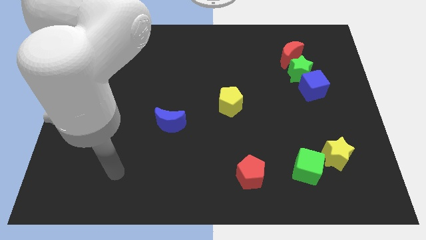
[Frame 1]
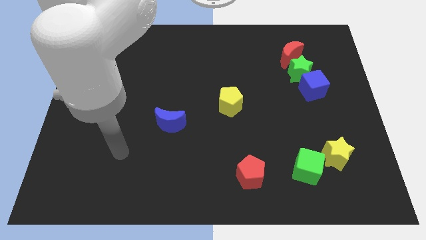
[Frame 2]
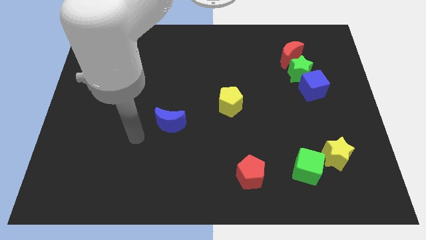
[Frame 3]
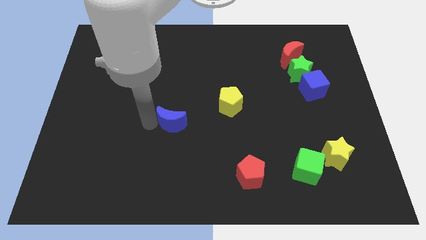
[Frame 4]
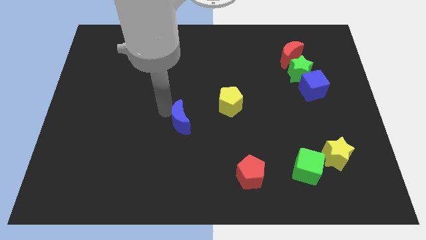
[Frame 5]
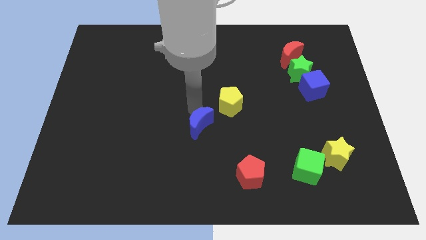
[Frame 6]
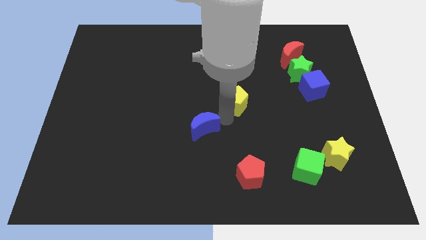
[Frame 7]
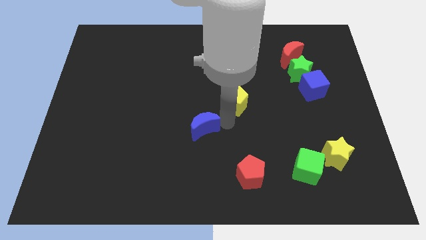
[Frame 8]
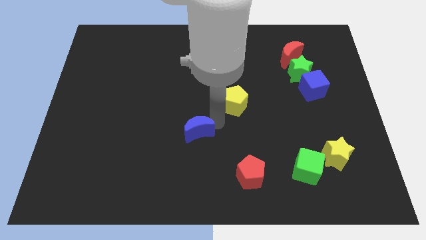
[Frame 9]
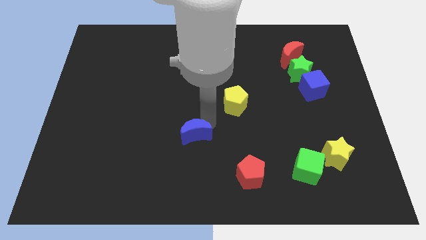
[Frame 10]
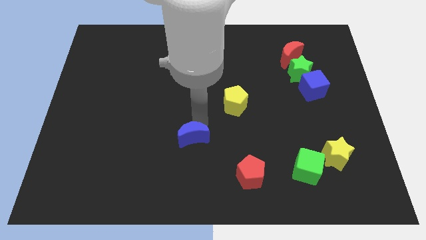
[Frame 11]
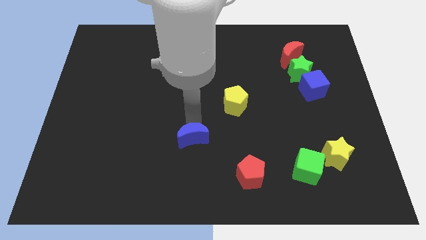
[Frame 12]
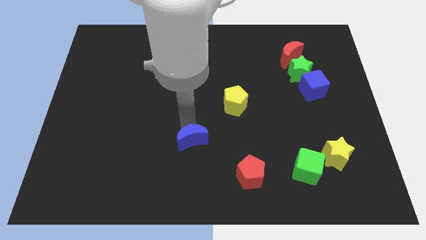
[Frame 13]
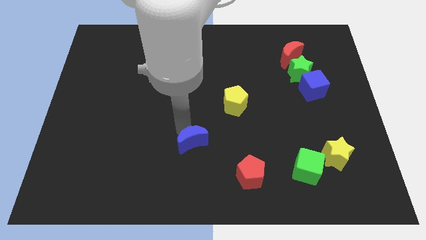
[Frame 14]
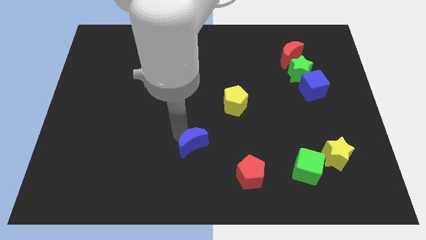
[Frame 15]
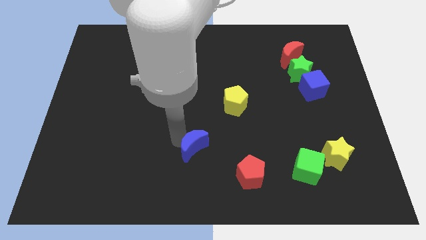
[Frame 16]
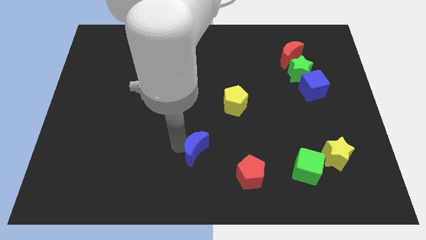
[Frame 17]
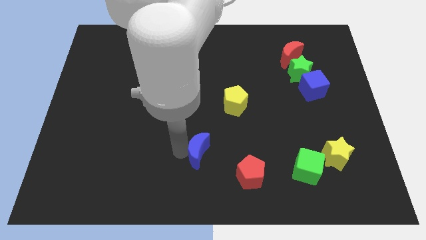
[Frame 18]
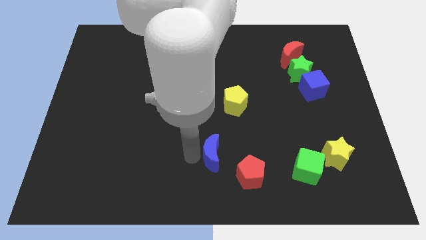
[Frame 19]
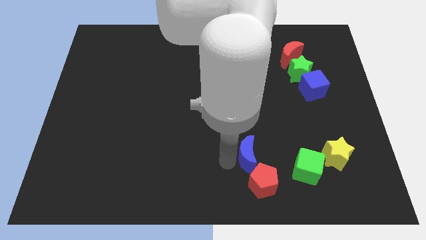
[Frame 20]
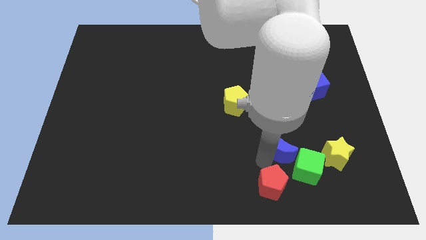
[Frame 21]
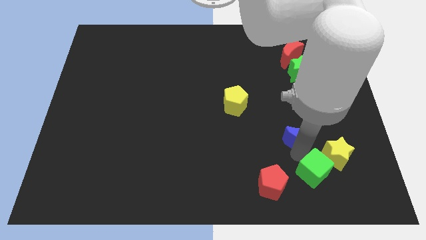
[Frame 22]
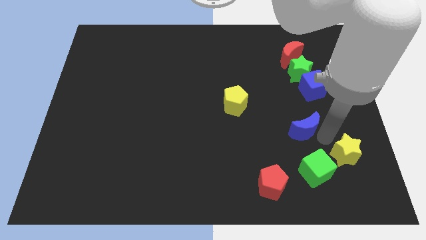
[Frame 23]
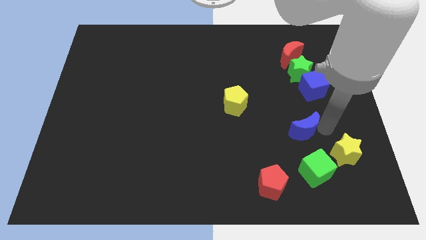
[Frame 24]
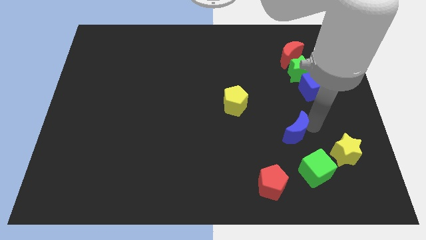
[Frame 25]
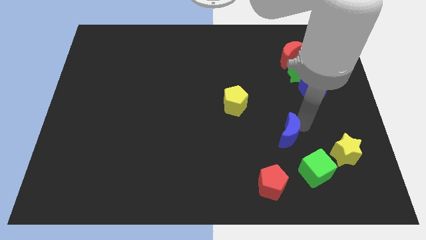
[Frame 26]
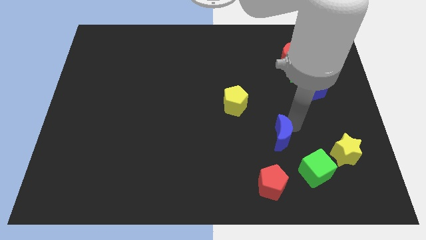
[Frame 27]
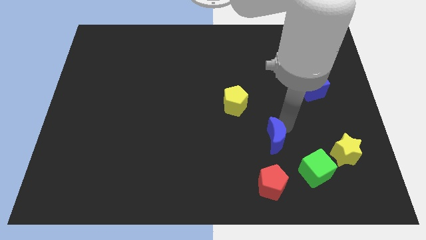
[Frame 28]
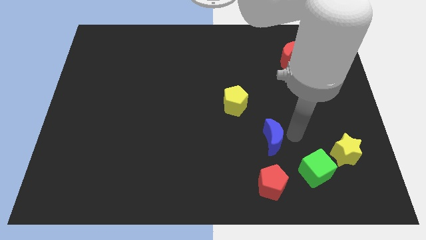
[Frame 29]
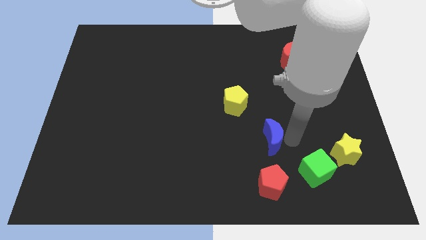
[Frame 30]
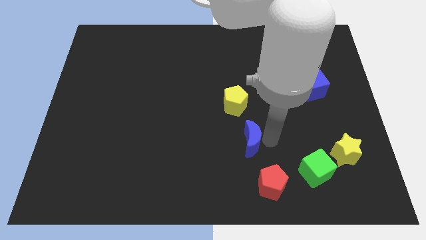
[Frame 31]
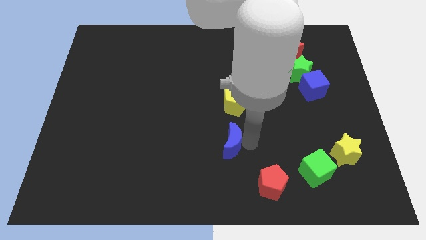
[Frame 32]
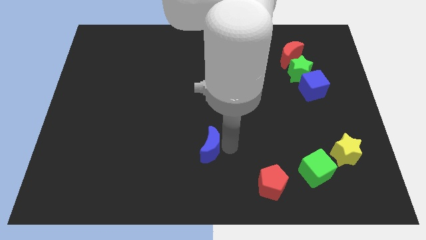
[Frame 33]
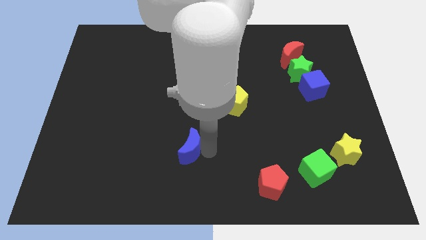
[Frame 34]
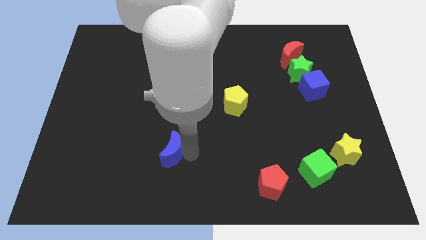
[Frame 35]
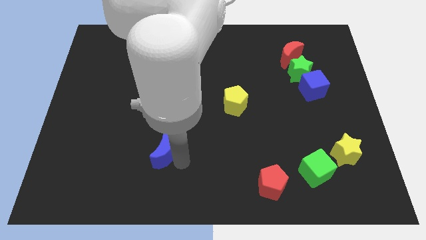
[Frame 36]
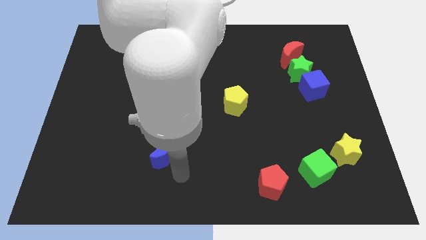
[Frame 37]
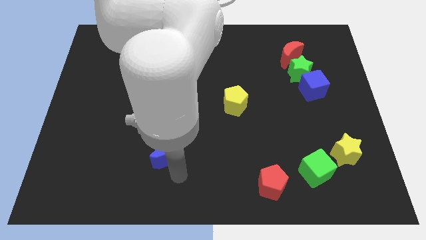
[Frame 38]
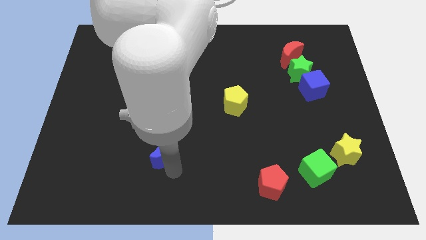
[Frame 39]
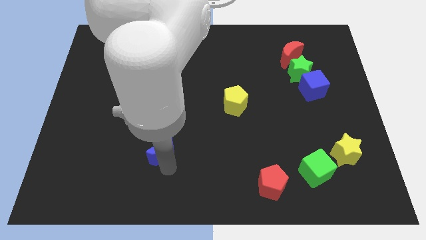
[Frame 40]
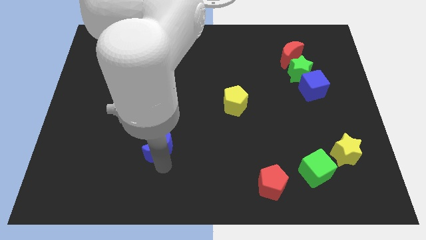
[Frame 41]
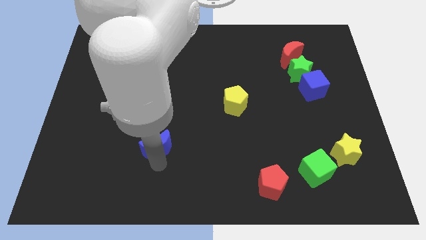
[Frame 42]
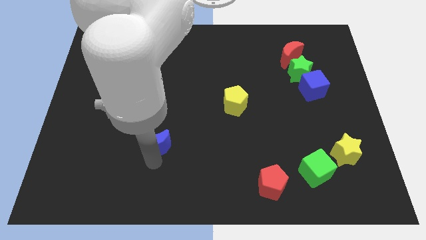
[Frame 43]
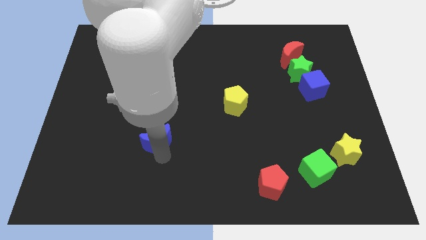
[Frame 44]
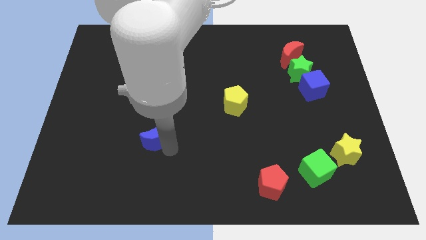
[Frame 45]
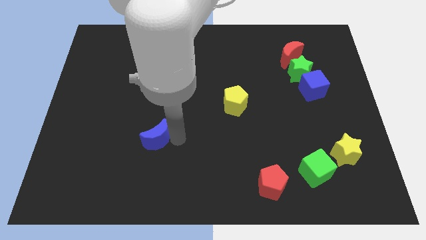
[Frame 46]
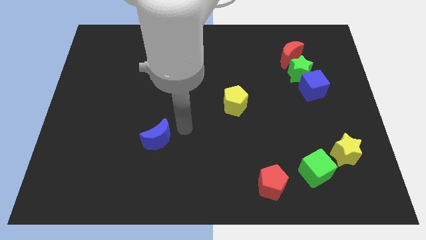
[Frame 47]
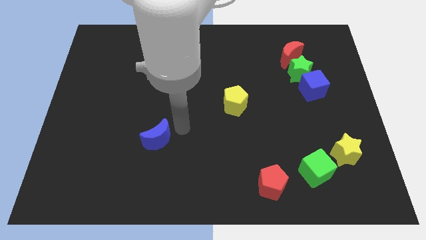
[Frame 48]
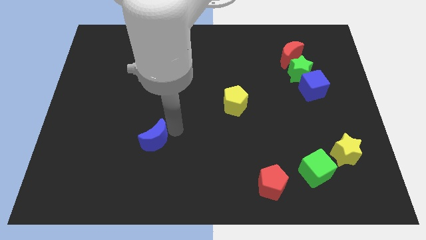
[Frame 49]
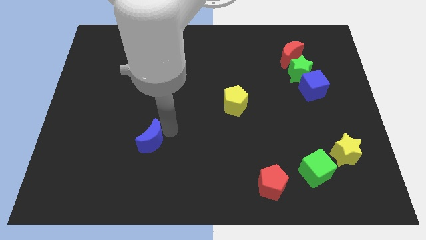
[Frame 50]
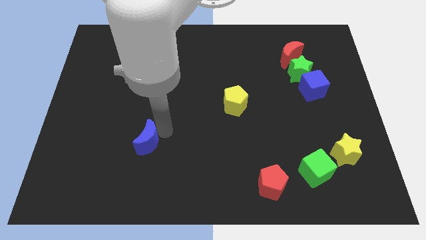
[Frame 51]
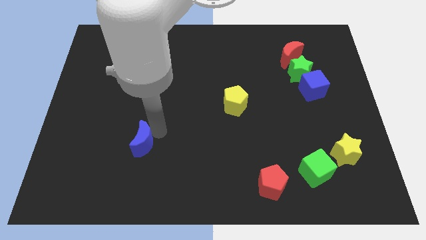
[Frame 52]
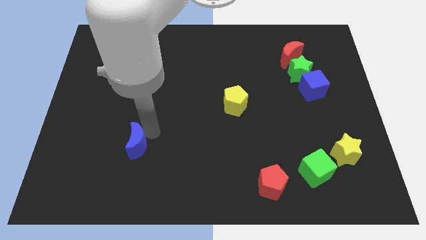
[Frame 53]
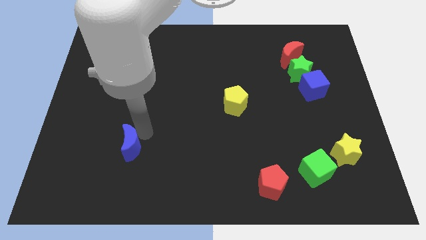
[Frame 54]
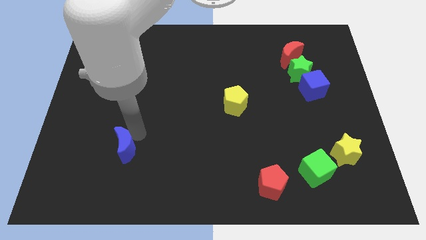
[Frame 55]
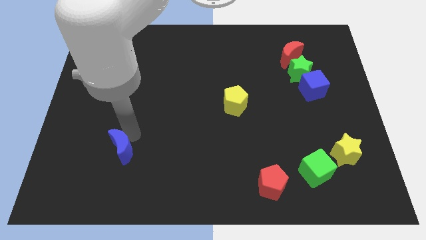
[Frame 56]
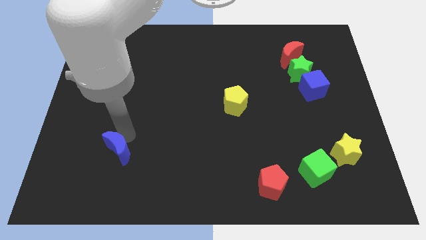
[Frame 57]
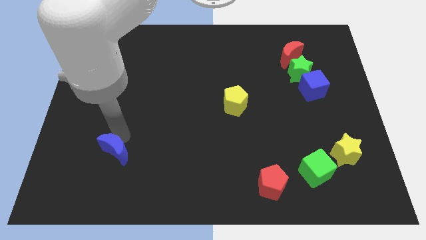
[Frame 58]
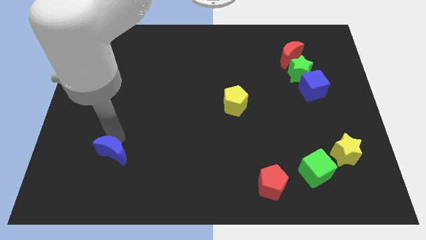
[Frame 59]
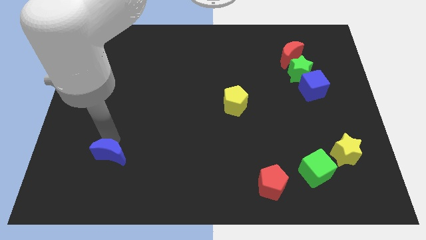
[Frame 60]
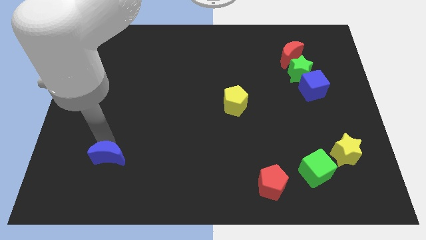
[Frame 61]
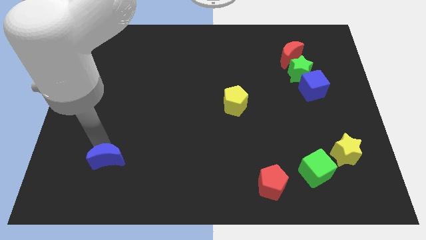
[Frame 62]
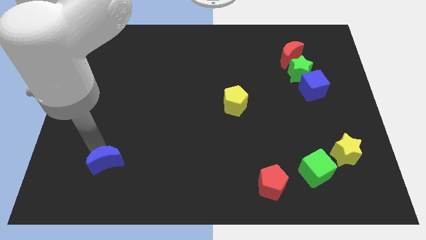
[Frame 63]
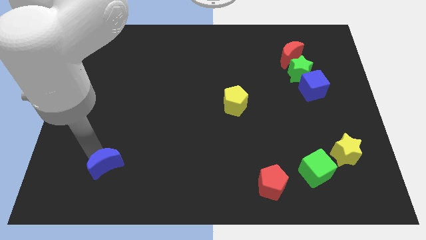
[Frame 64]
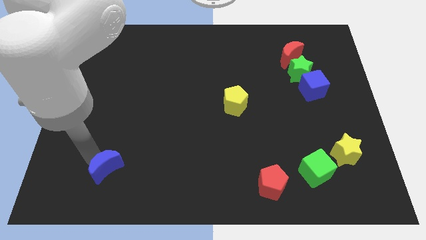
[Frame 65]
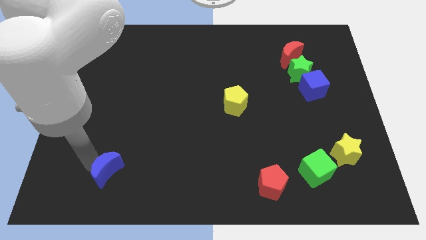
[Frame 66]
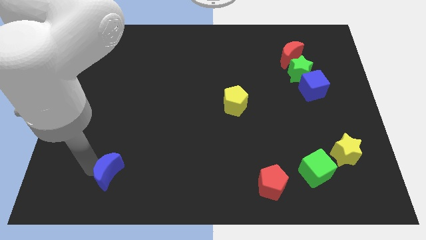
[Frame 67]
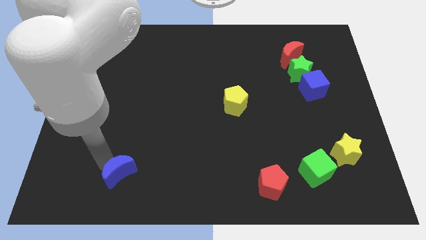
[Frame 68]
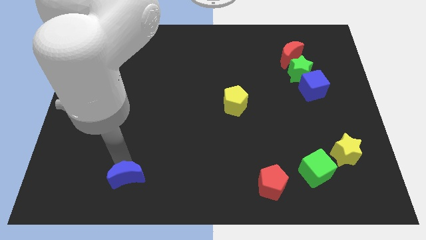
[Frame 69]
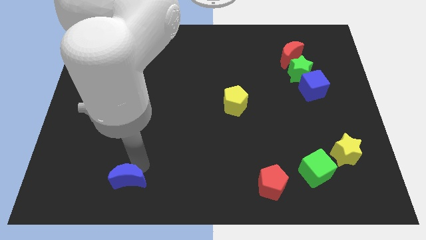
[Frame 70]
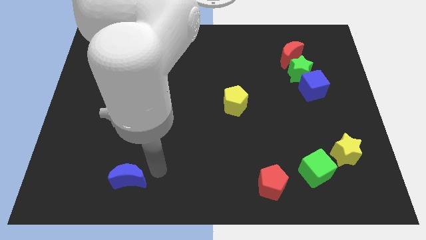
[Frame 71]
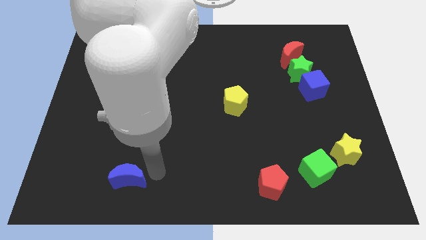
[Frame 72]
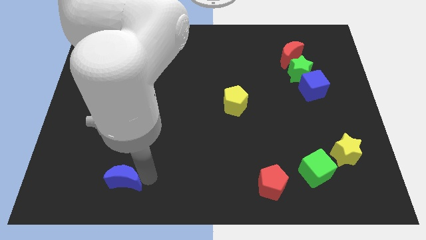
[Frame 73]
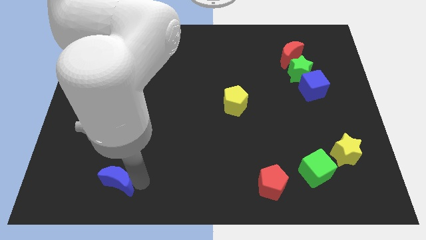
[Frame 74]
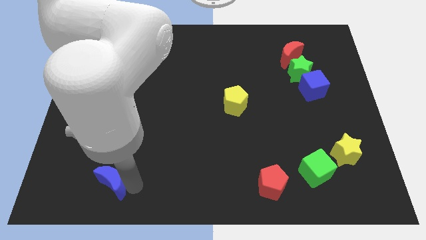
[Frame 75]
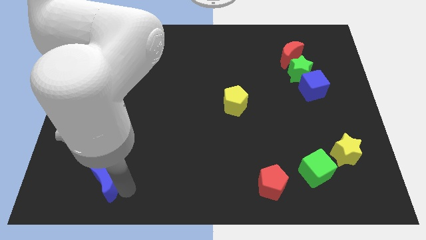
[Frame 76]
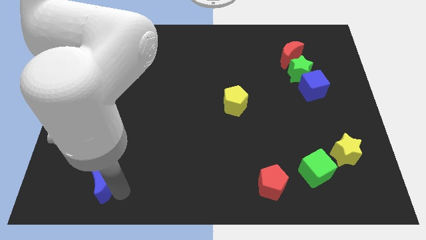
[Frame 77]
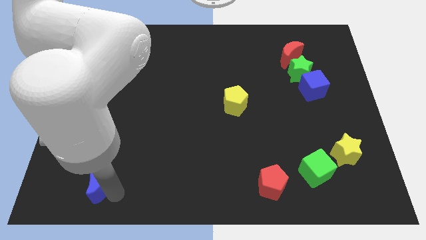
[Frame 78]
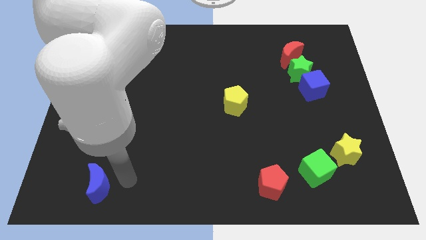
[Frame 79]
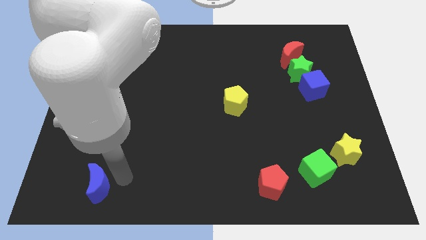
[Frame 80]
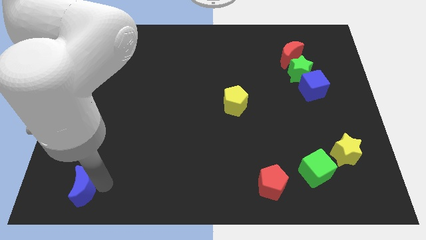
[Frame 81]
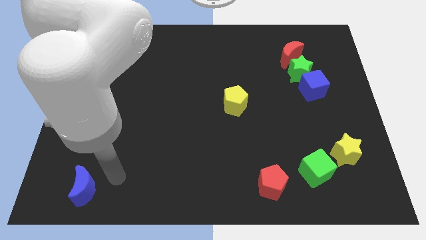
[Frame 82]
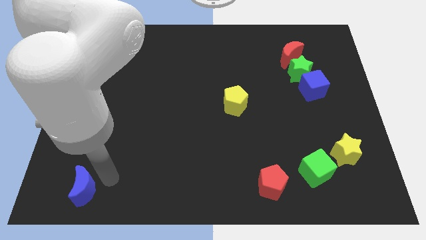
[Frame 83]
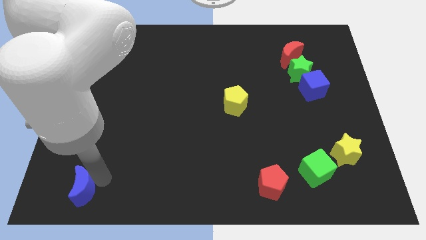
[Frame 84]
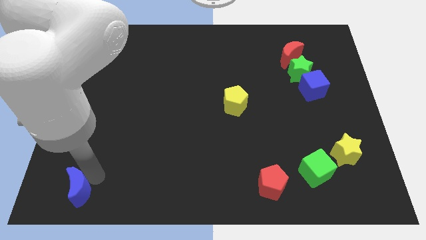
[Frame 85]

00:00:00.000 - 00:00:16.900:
put the blue moon to the bottom left of the board
